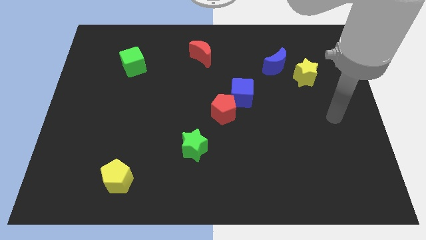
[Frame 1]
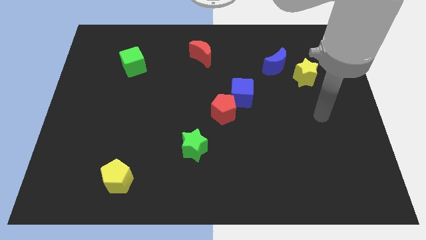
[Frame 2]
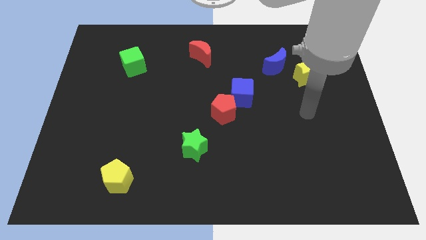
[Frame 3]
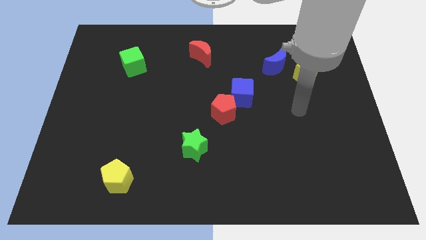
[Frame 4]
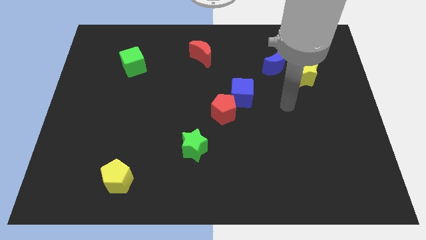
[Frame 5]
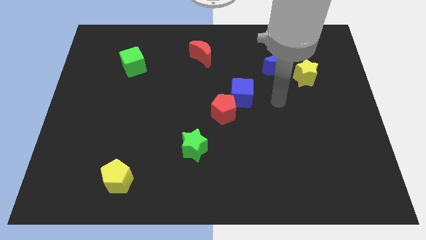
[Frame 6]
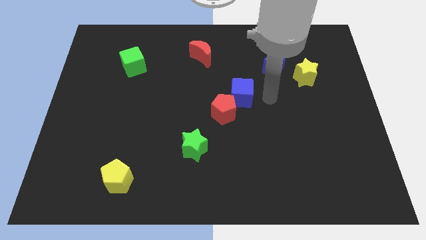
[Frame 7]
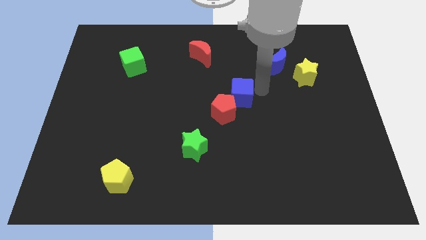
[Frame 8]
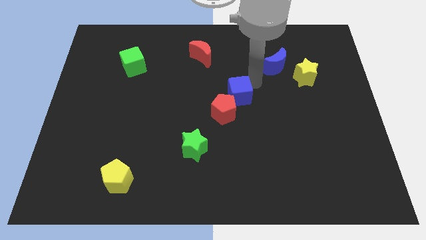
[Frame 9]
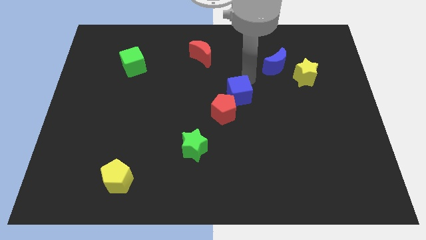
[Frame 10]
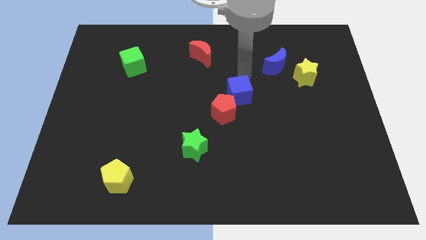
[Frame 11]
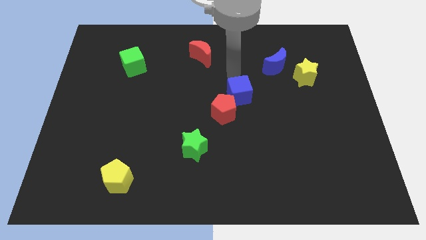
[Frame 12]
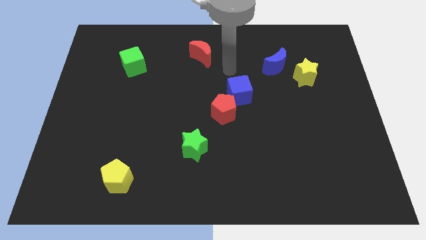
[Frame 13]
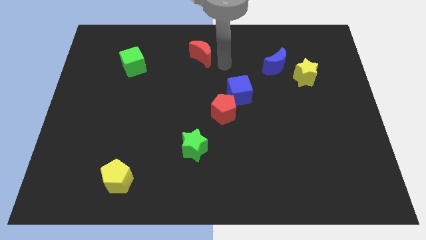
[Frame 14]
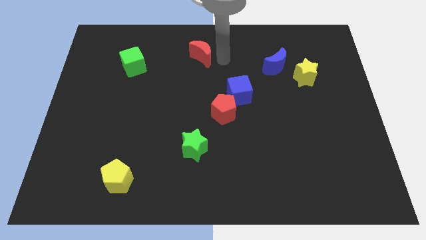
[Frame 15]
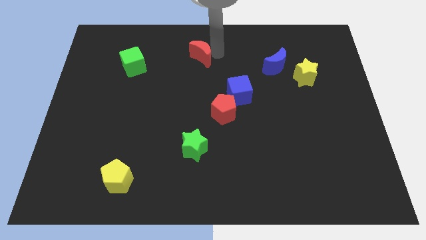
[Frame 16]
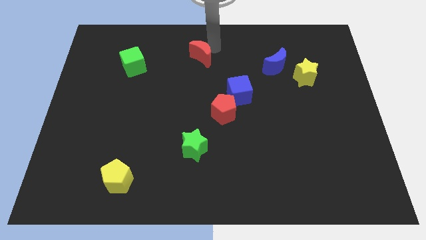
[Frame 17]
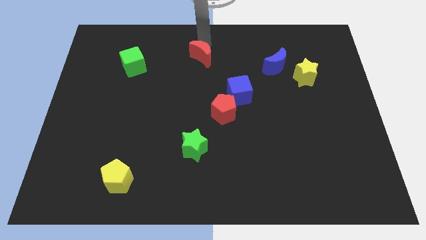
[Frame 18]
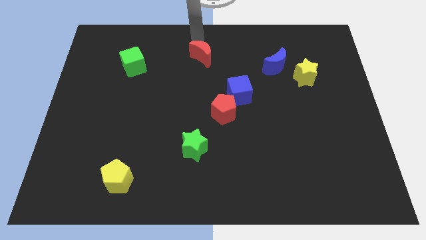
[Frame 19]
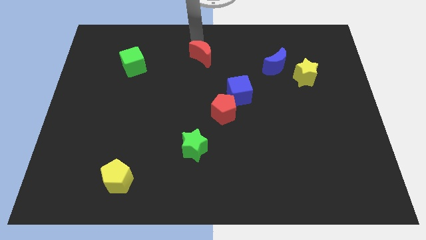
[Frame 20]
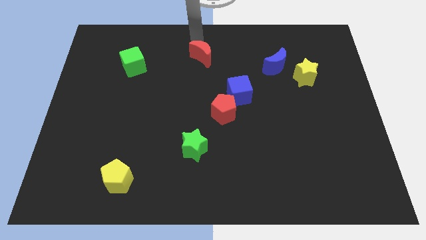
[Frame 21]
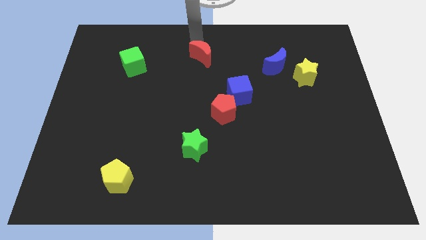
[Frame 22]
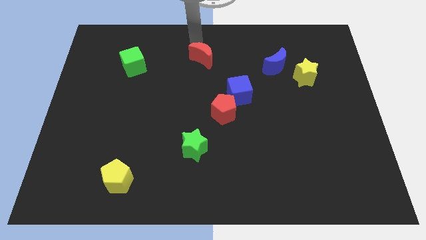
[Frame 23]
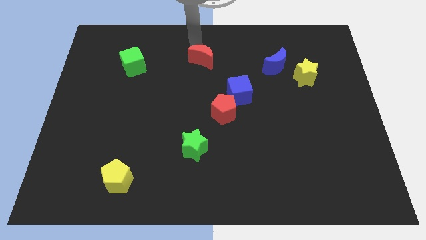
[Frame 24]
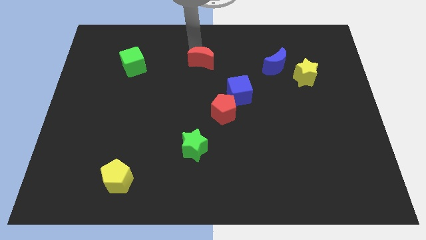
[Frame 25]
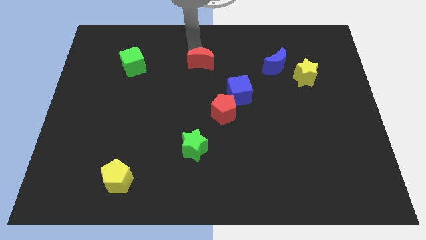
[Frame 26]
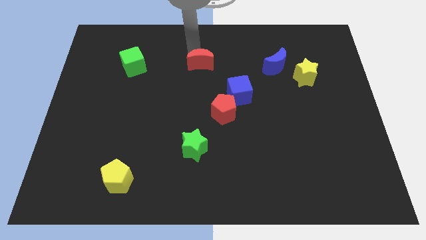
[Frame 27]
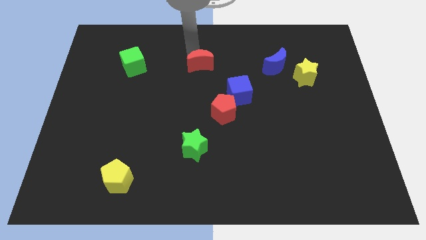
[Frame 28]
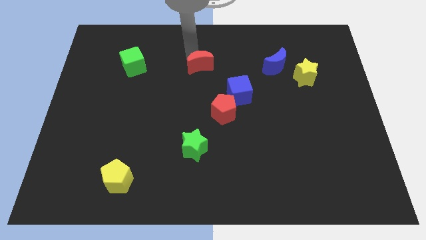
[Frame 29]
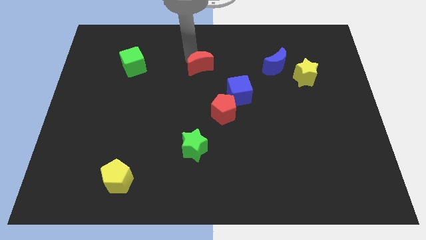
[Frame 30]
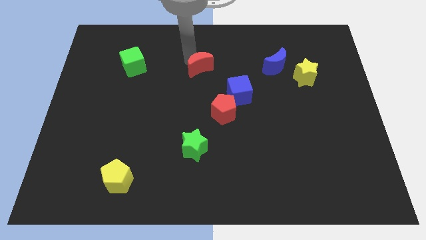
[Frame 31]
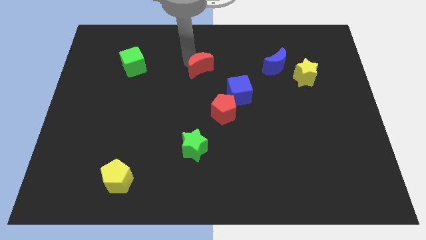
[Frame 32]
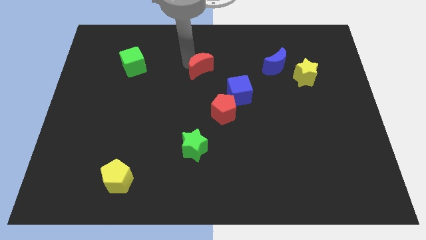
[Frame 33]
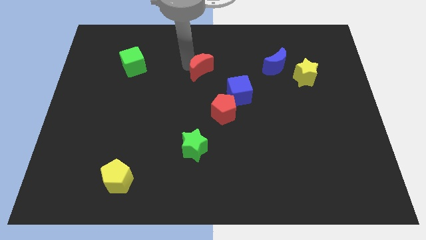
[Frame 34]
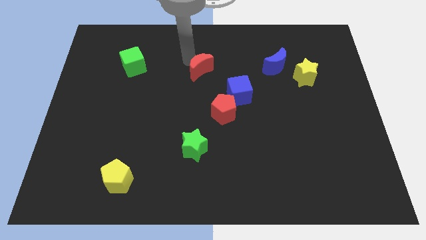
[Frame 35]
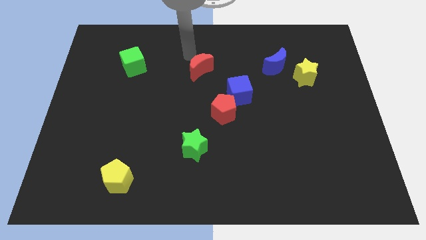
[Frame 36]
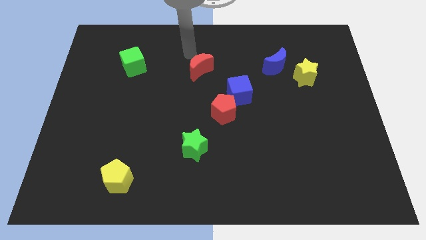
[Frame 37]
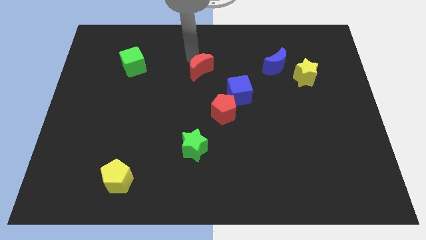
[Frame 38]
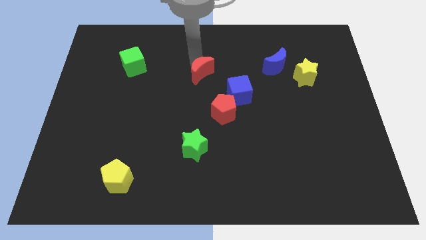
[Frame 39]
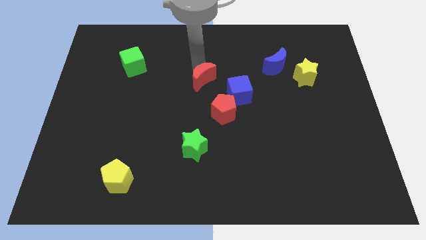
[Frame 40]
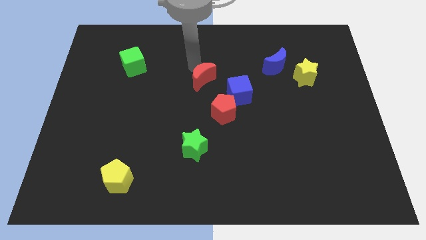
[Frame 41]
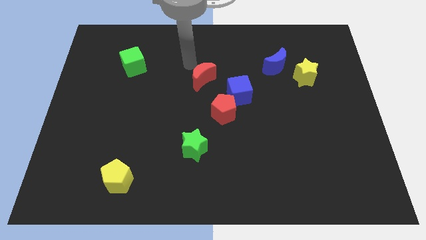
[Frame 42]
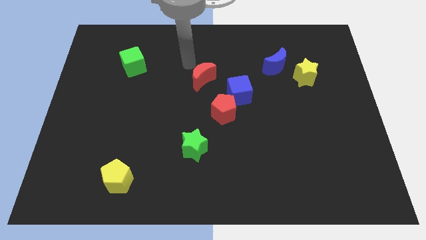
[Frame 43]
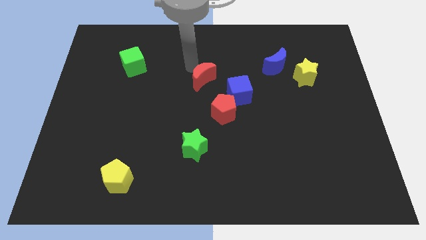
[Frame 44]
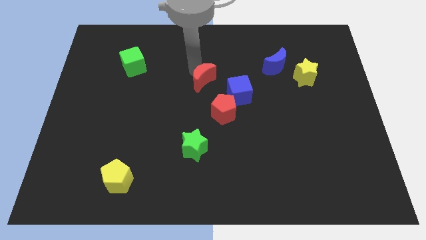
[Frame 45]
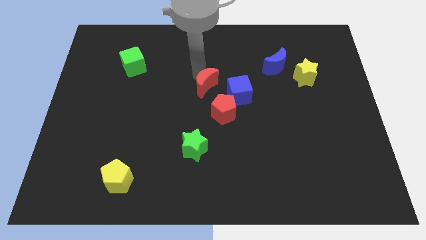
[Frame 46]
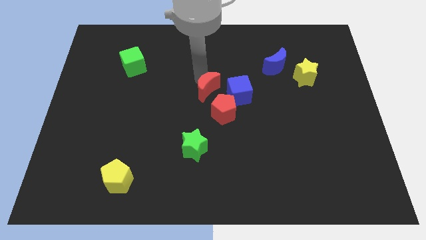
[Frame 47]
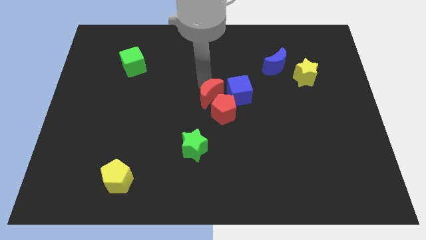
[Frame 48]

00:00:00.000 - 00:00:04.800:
put the red moon towards the red pentagon

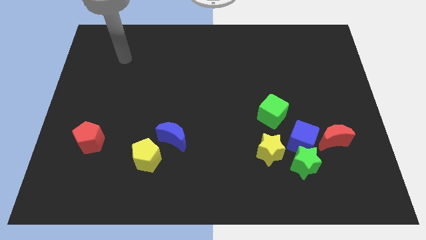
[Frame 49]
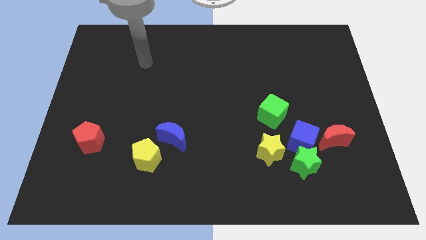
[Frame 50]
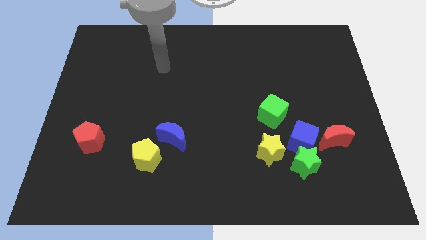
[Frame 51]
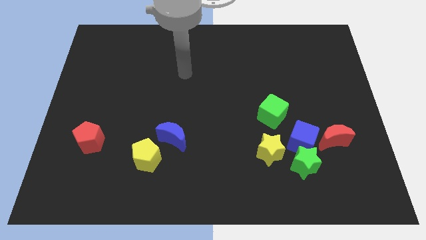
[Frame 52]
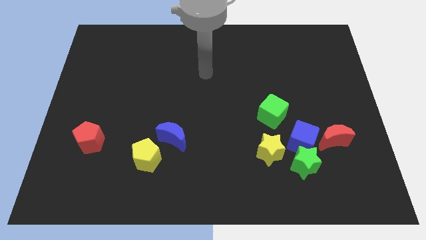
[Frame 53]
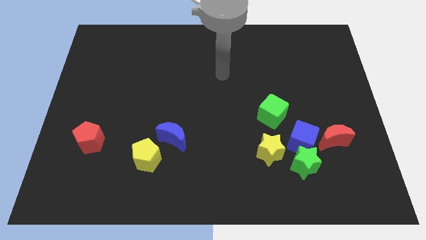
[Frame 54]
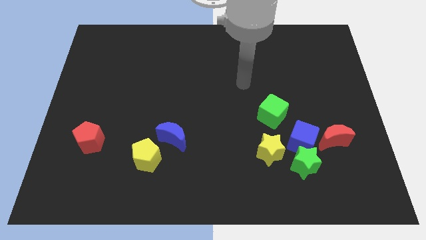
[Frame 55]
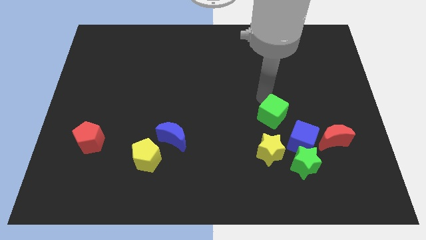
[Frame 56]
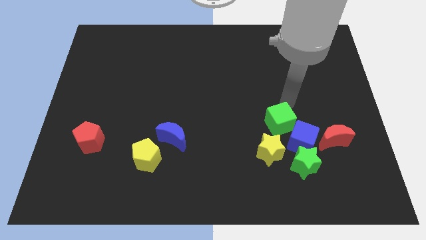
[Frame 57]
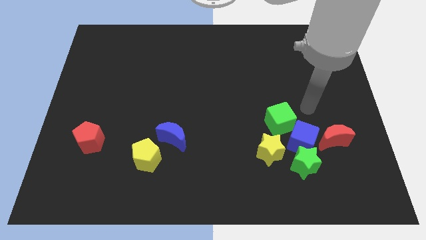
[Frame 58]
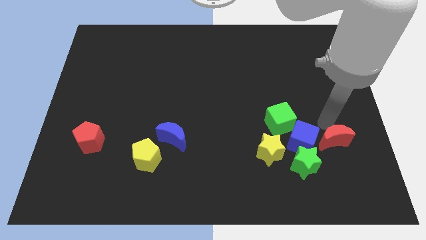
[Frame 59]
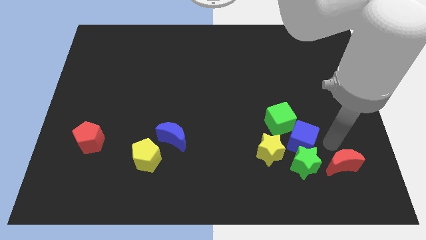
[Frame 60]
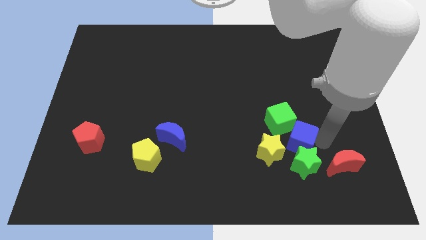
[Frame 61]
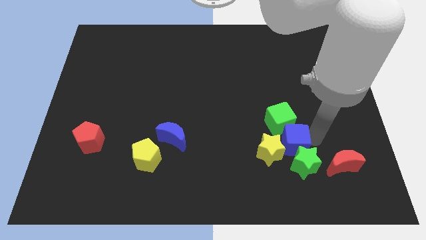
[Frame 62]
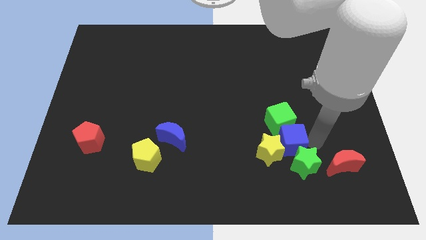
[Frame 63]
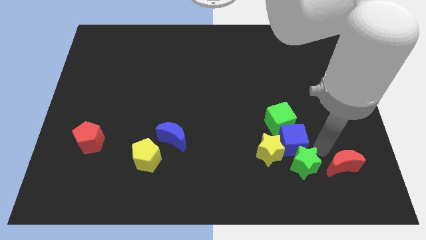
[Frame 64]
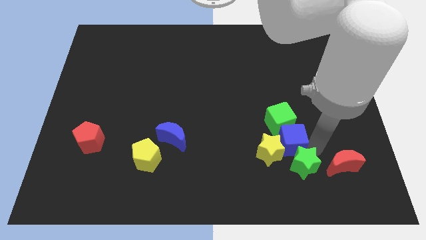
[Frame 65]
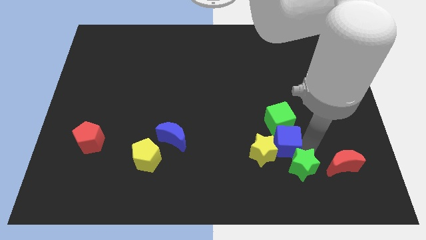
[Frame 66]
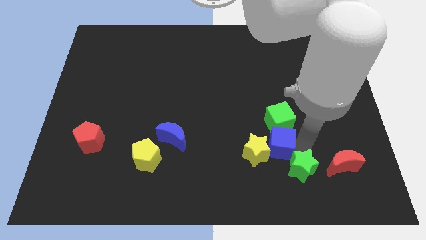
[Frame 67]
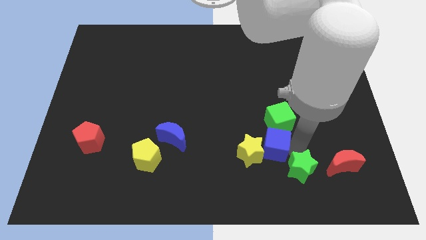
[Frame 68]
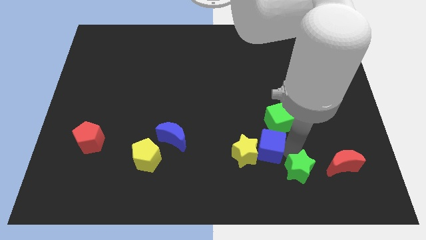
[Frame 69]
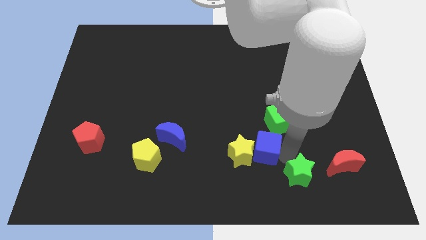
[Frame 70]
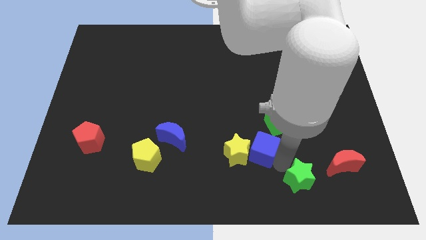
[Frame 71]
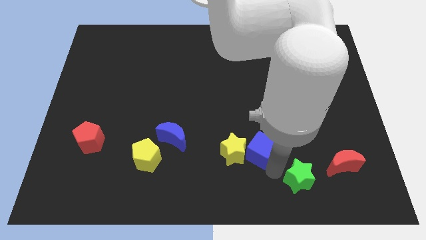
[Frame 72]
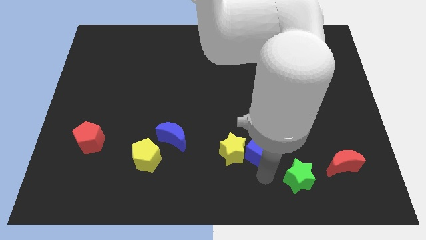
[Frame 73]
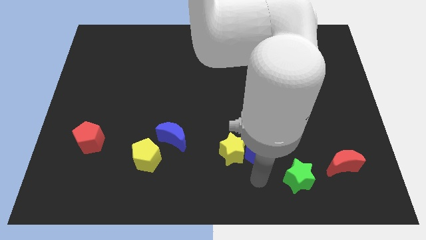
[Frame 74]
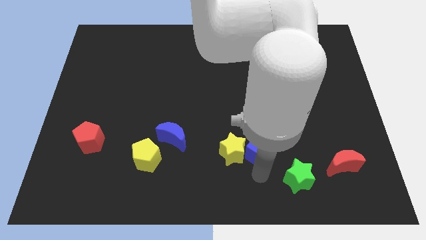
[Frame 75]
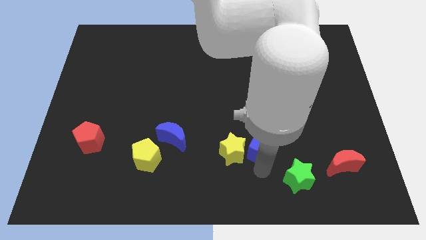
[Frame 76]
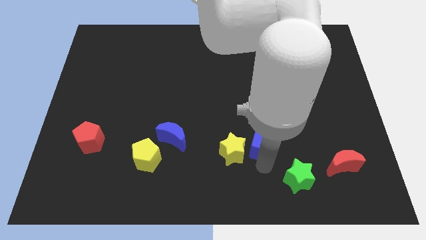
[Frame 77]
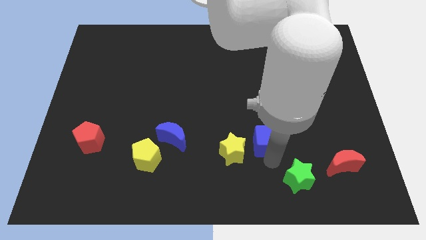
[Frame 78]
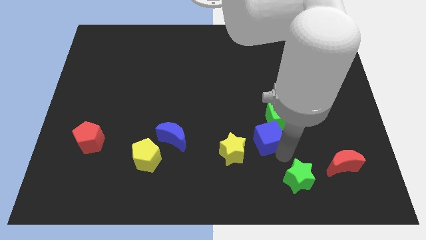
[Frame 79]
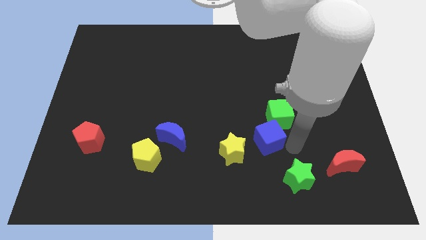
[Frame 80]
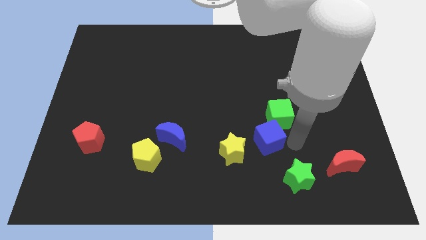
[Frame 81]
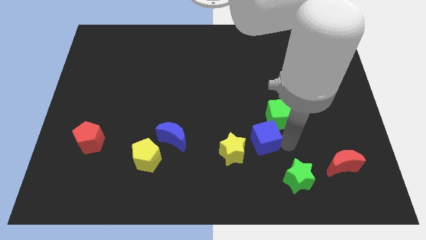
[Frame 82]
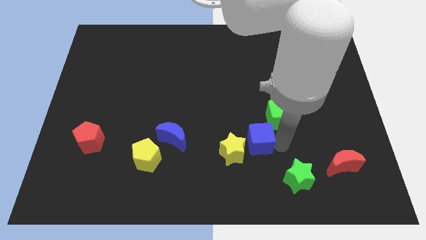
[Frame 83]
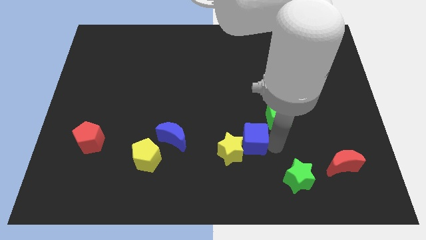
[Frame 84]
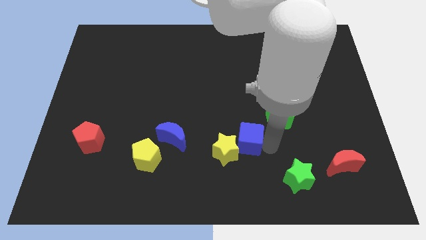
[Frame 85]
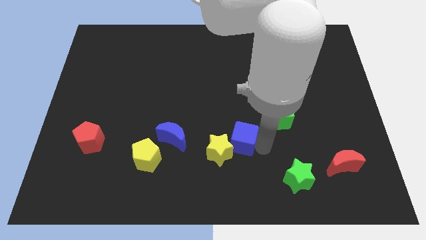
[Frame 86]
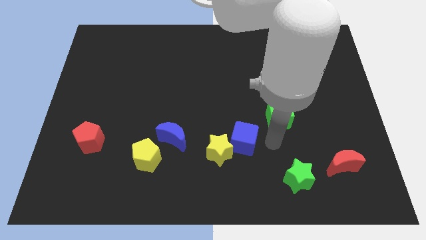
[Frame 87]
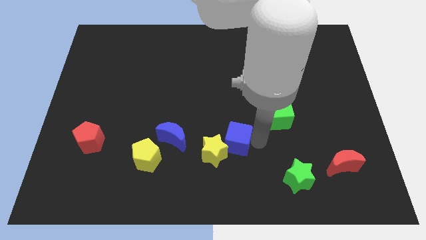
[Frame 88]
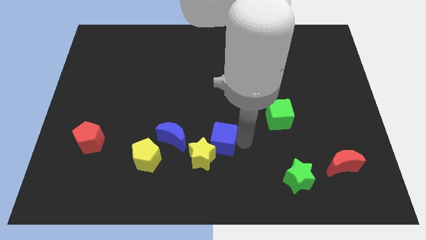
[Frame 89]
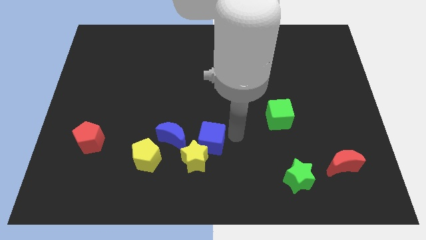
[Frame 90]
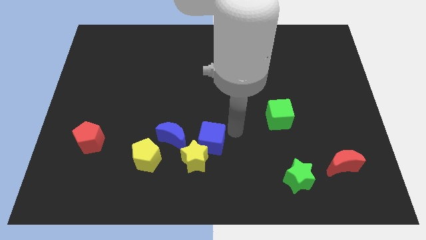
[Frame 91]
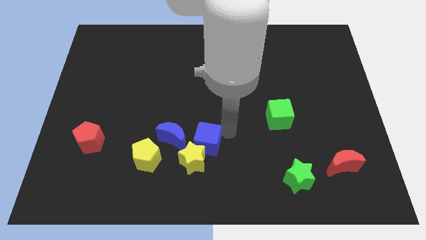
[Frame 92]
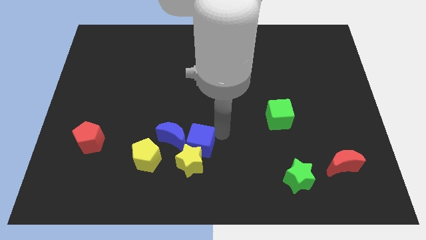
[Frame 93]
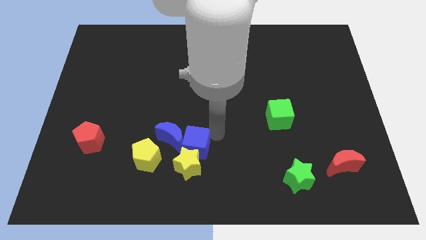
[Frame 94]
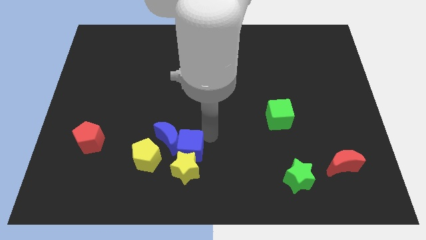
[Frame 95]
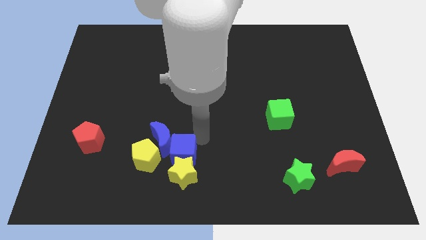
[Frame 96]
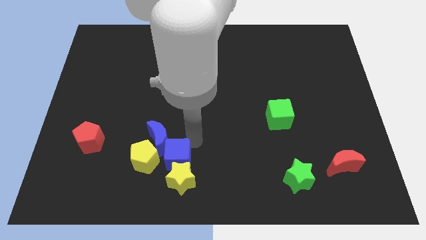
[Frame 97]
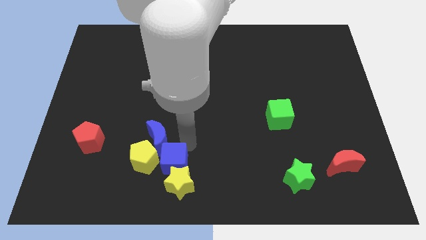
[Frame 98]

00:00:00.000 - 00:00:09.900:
slide the blue cube close to the yellow pentagon
